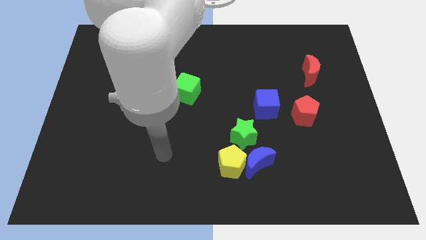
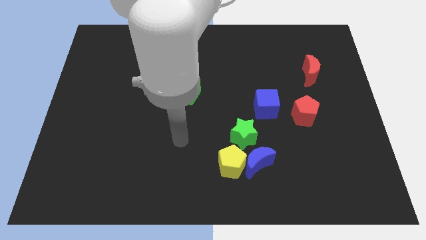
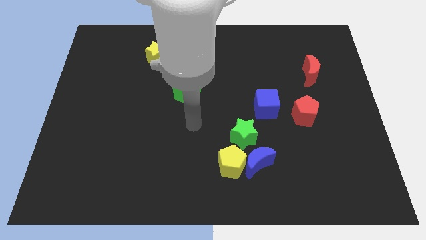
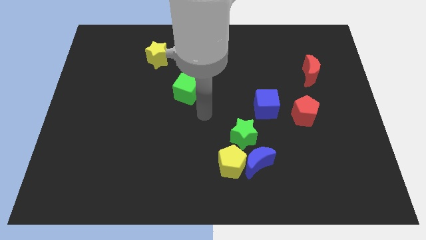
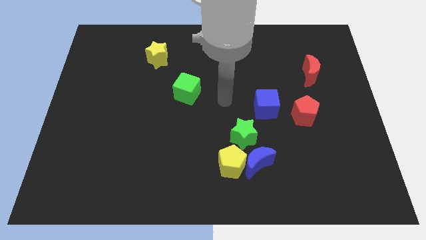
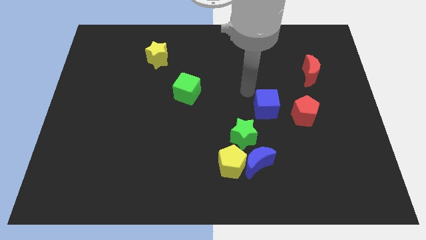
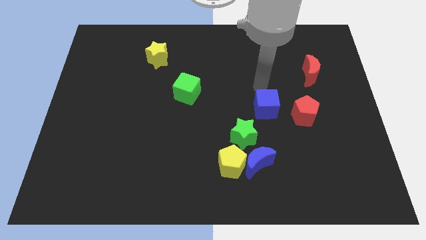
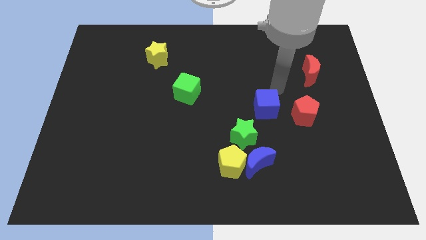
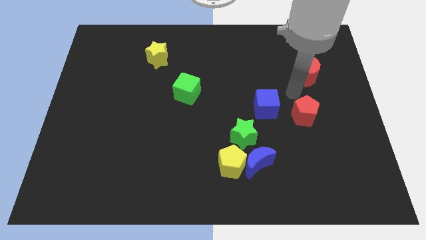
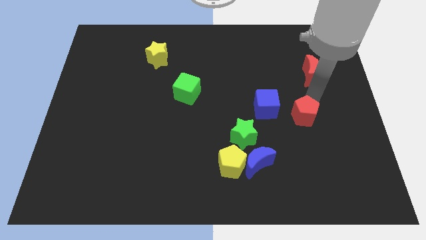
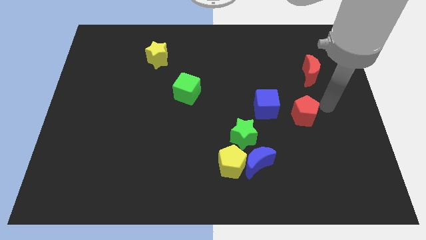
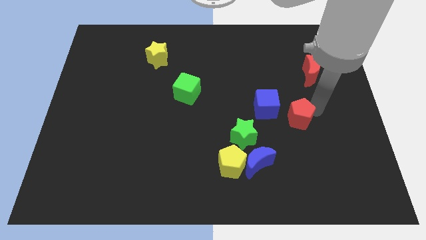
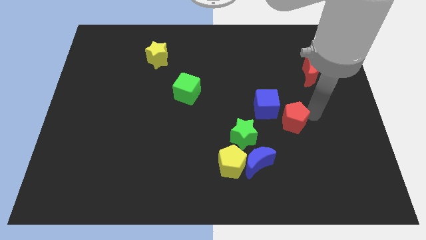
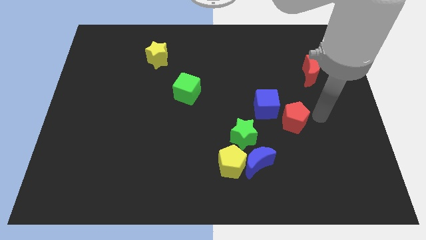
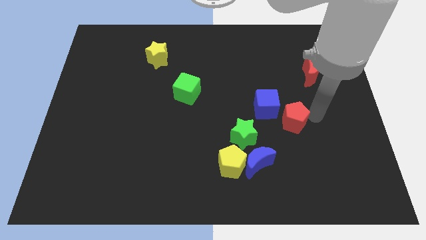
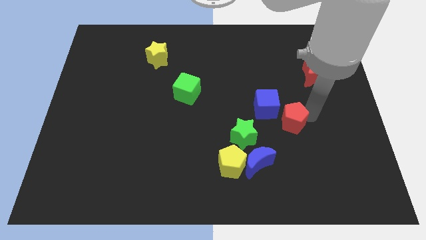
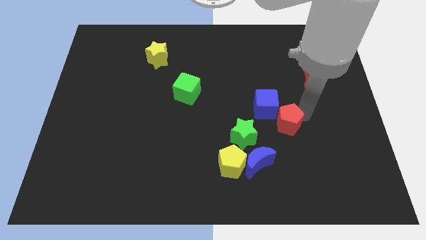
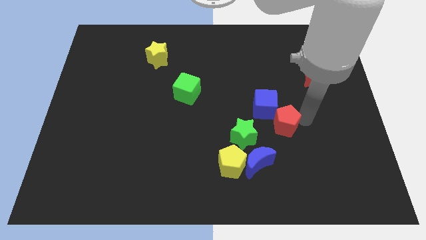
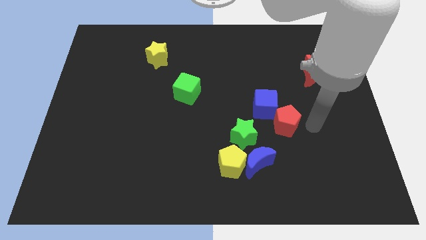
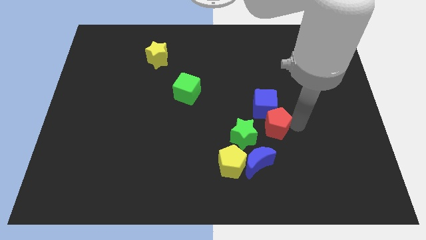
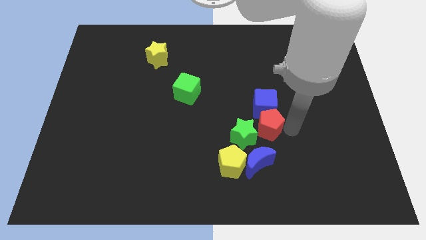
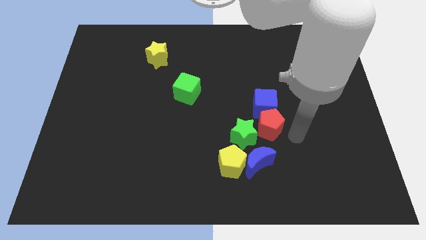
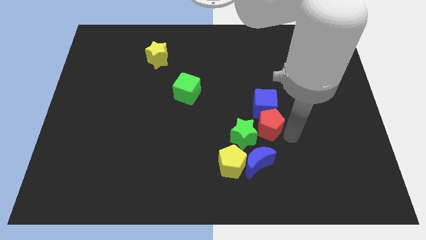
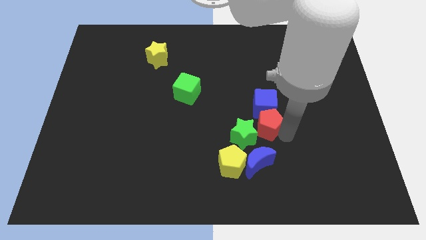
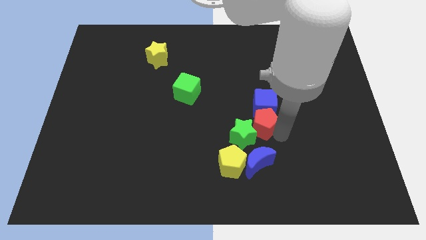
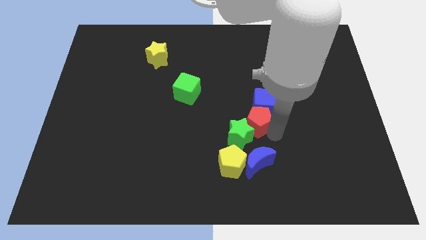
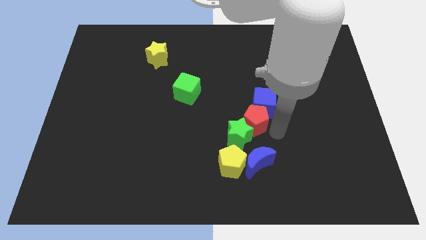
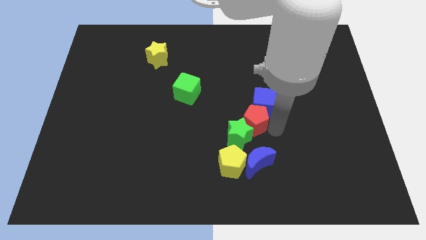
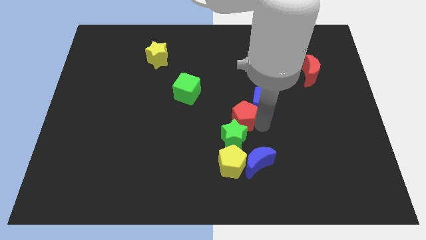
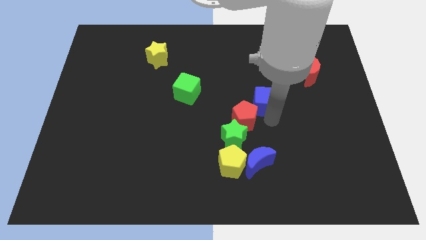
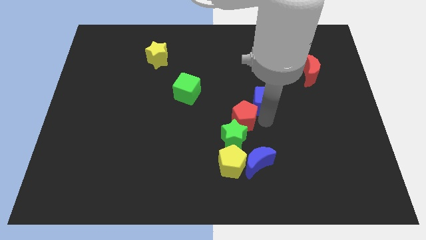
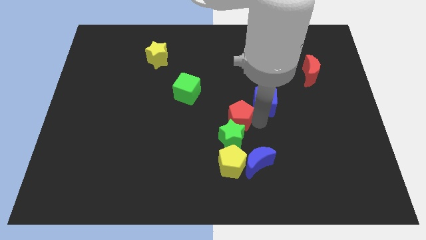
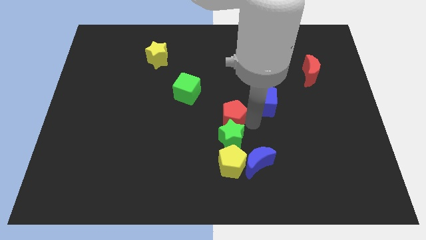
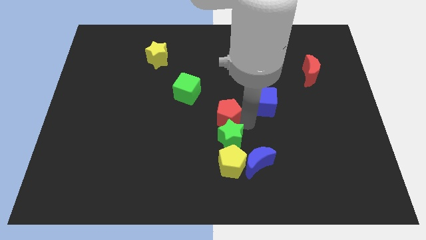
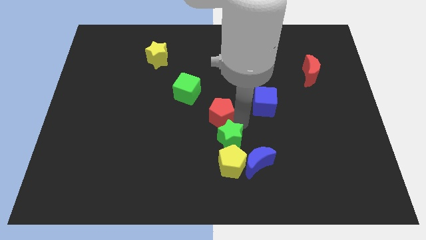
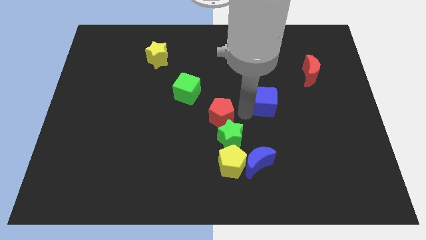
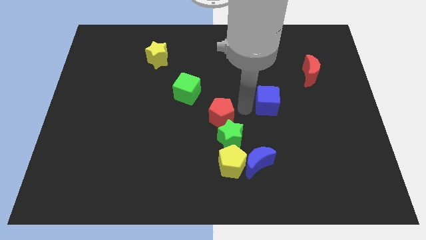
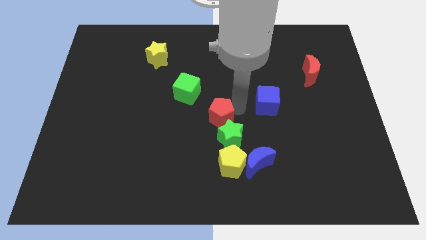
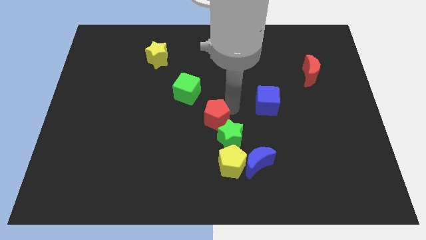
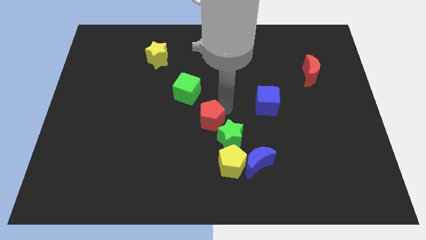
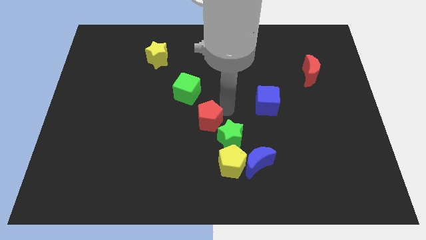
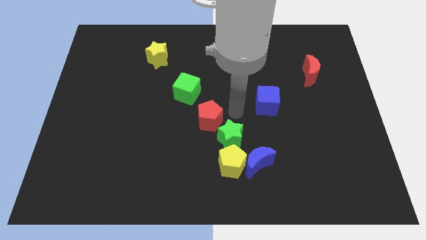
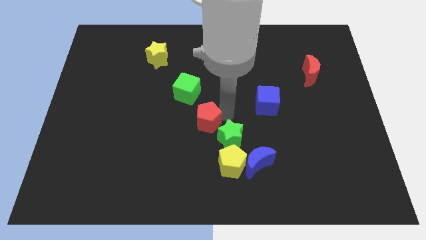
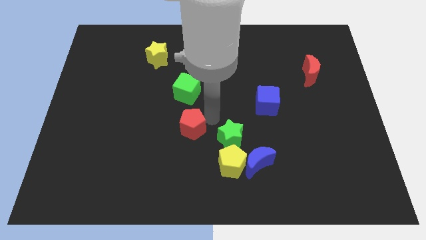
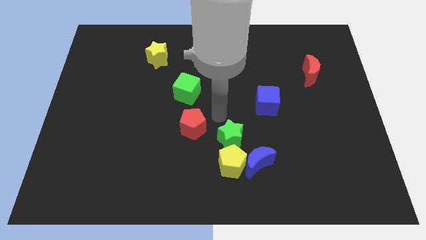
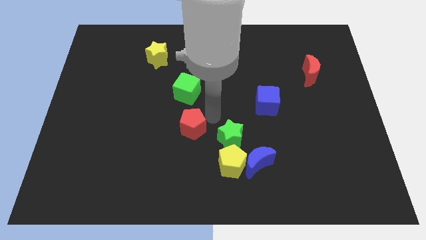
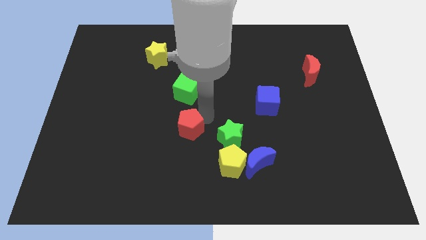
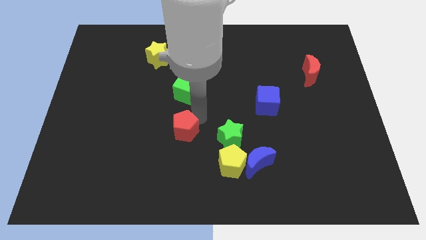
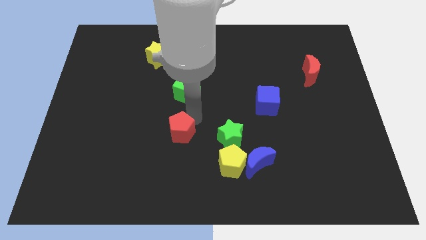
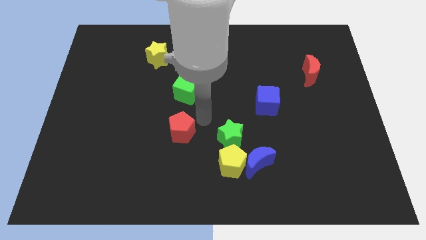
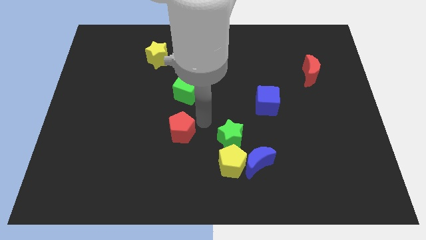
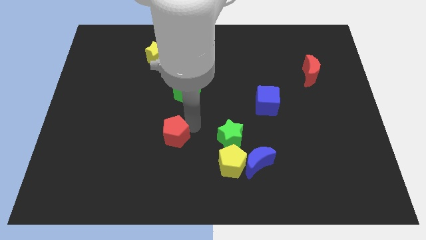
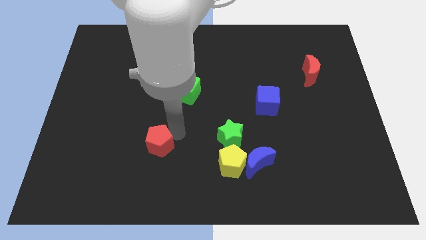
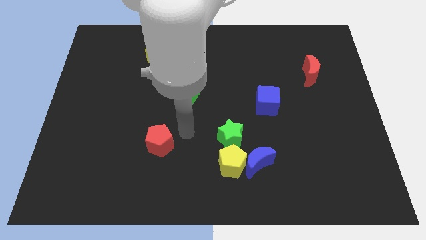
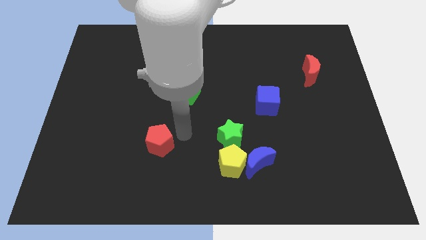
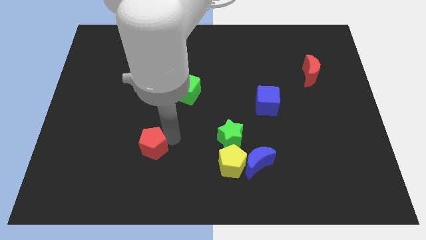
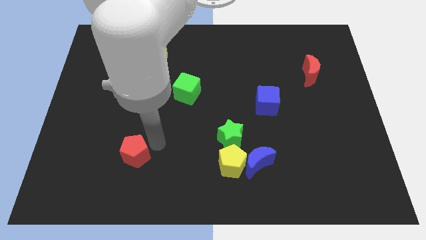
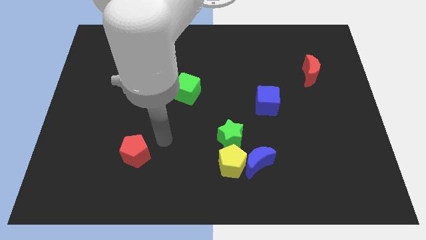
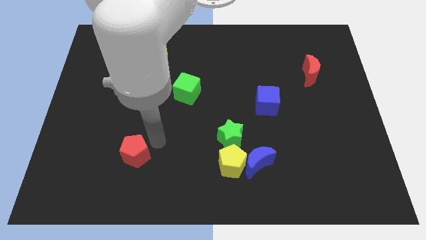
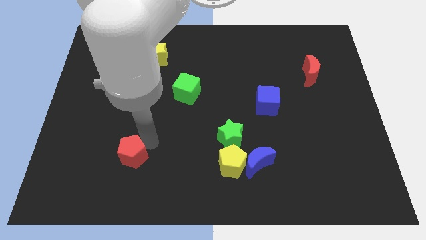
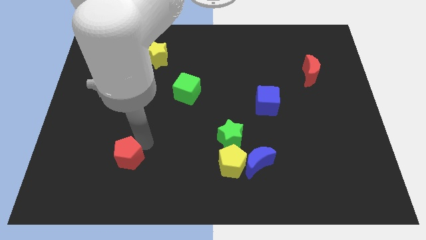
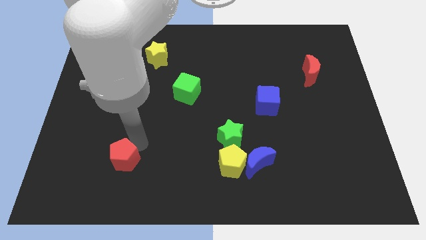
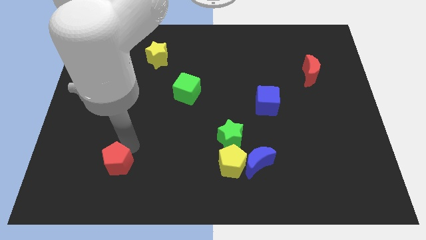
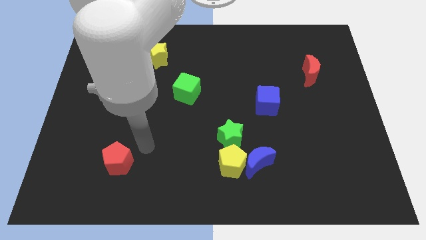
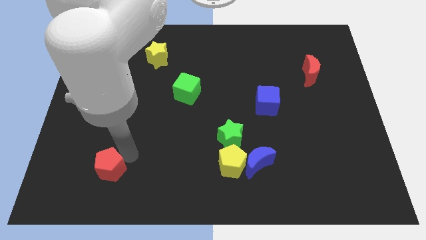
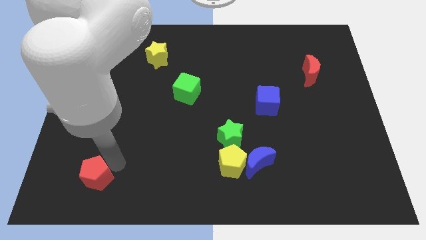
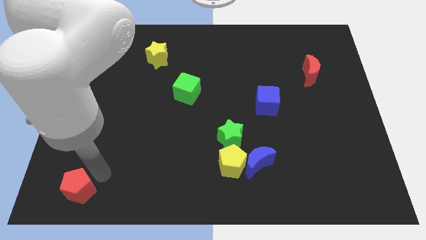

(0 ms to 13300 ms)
move the red pentagon to the bottom left
